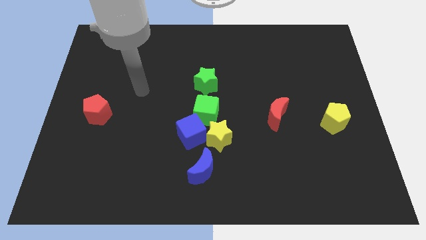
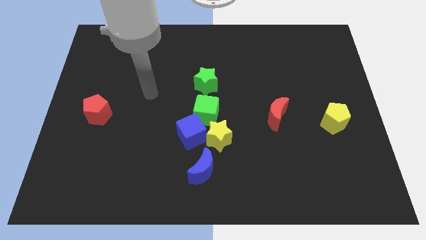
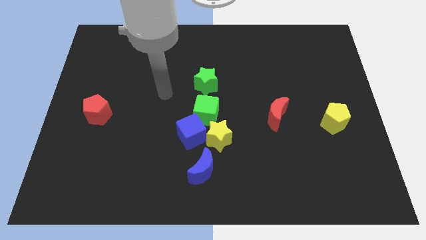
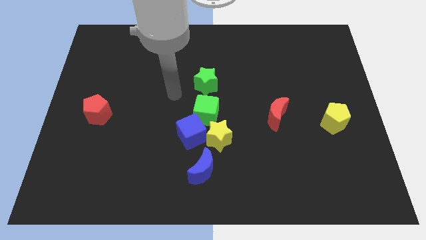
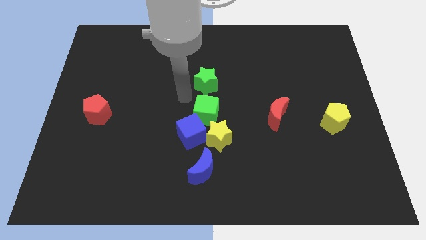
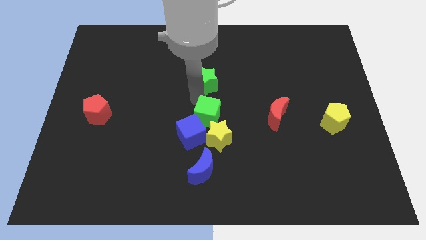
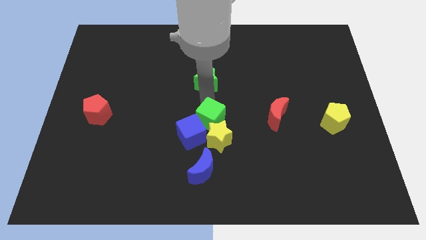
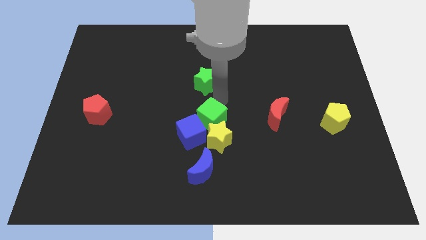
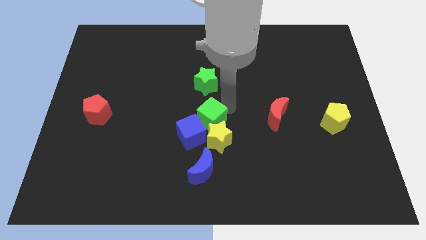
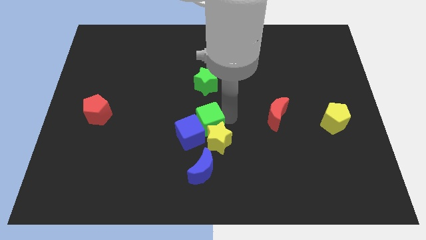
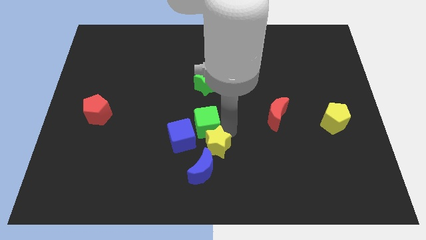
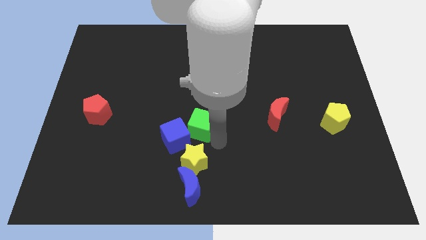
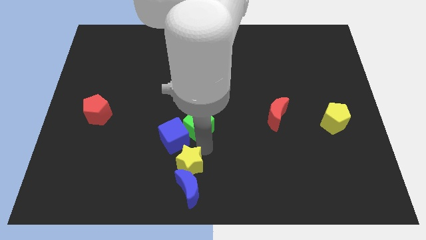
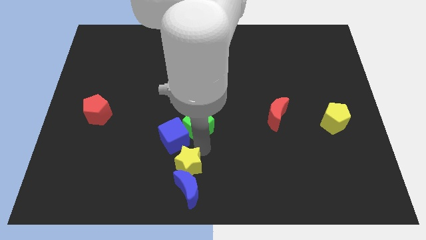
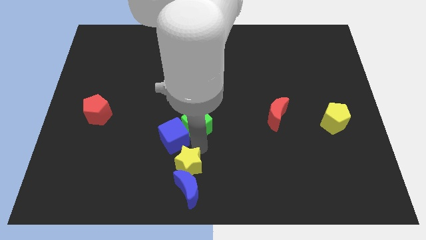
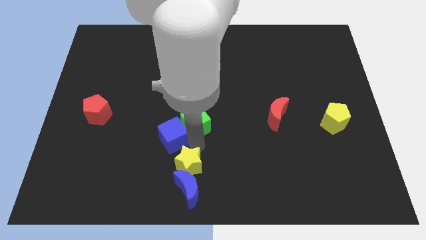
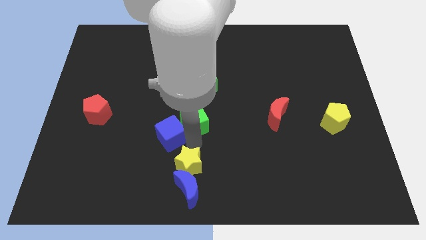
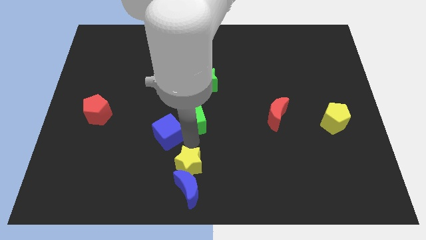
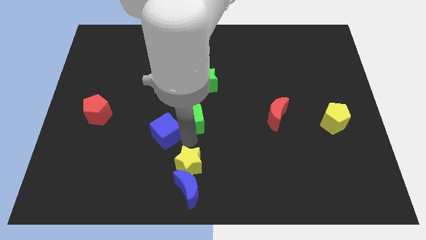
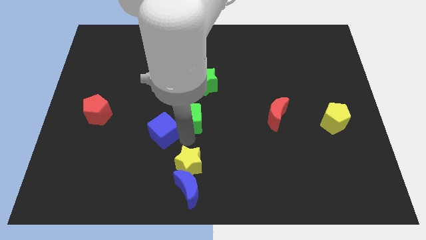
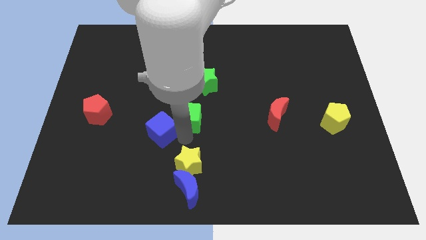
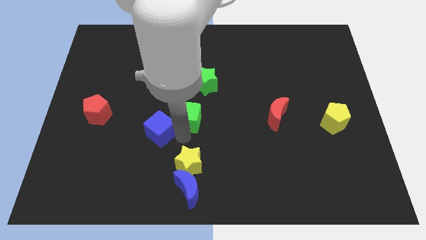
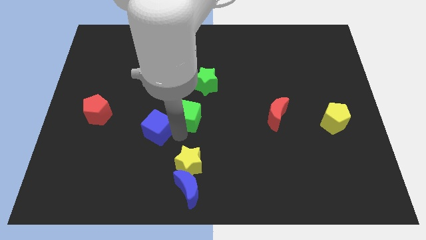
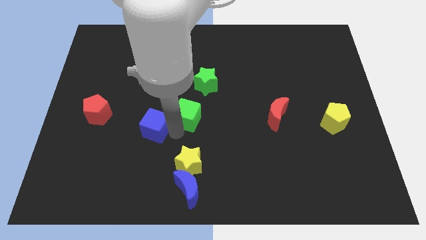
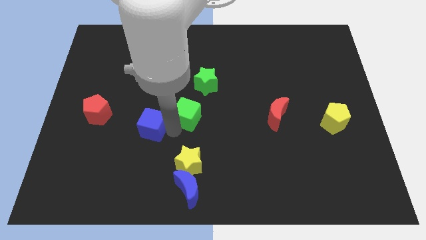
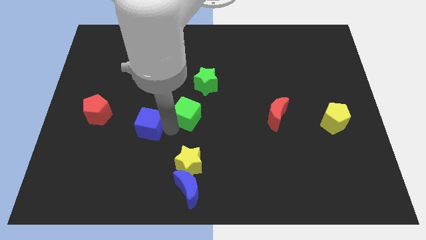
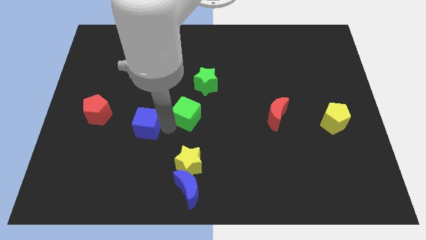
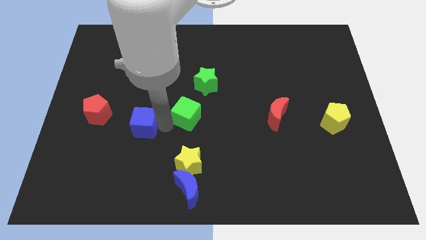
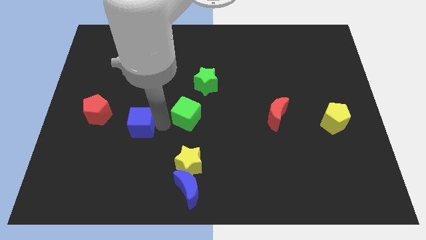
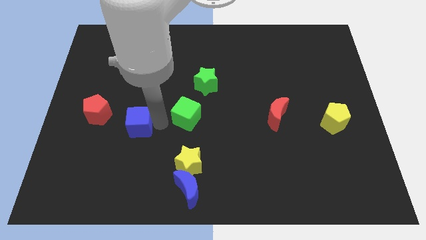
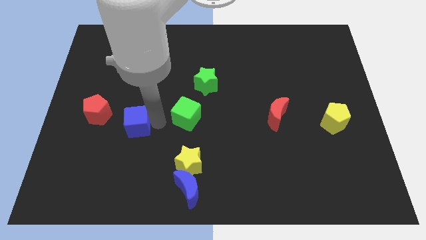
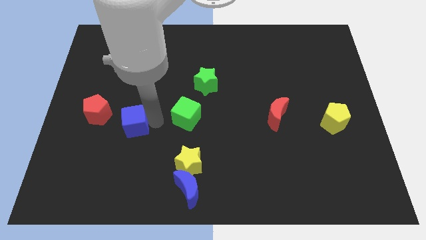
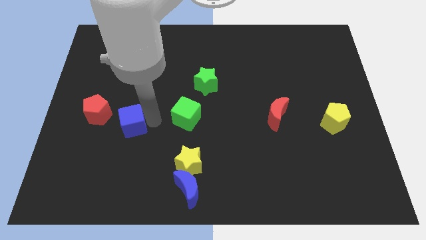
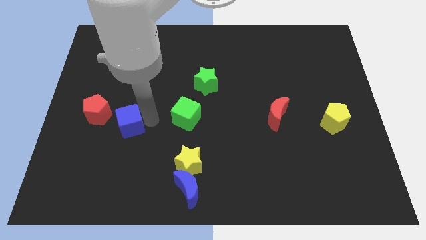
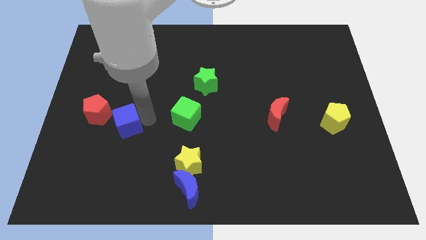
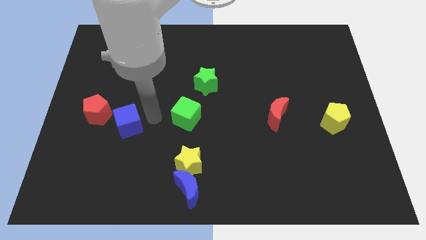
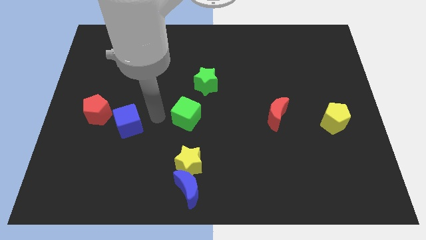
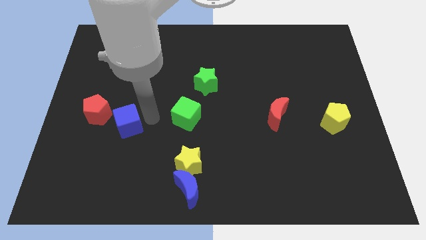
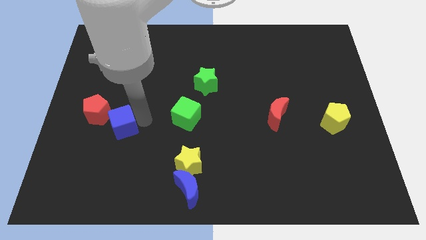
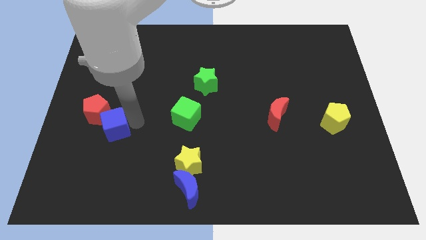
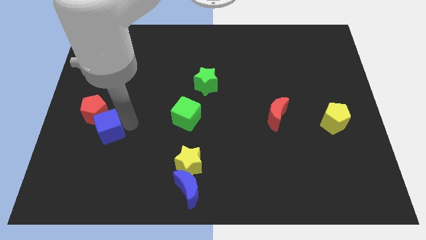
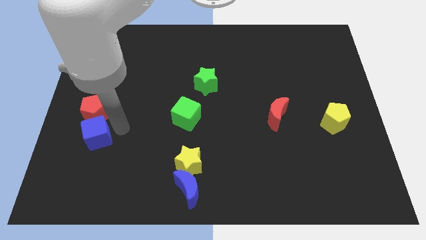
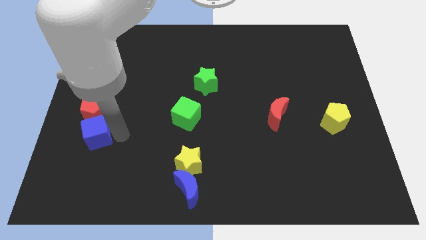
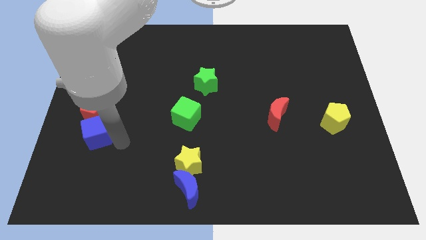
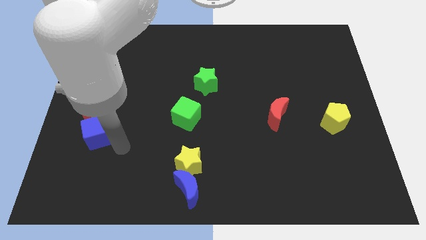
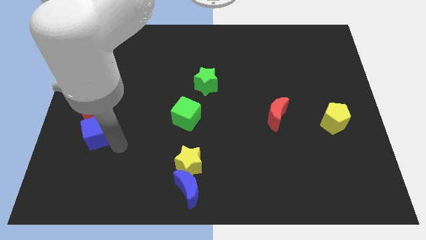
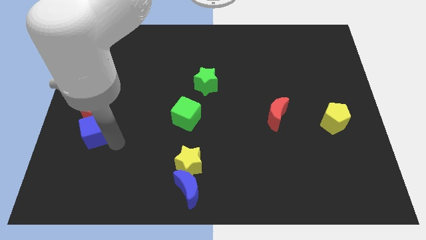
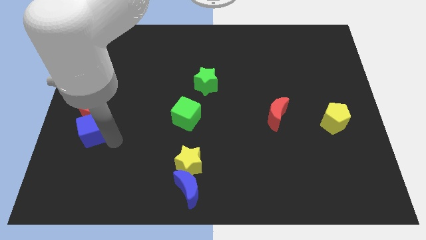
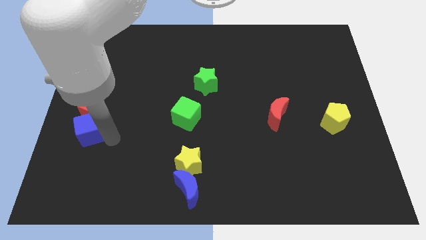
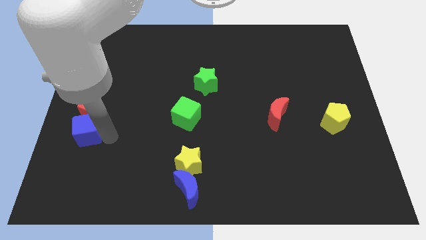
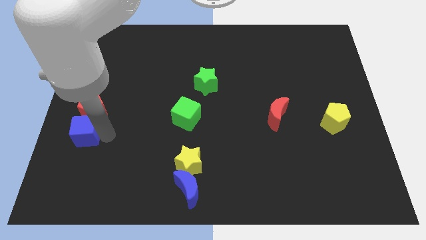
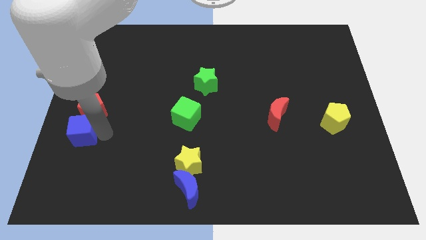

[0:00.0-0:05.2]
put the blue cube to the left side of the board

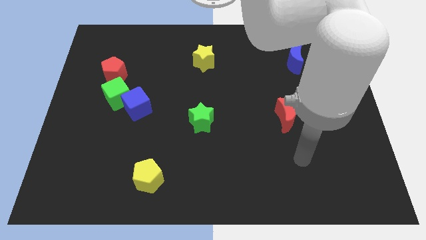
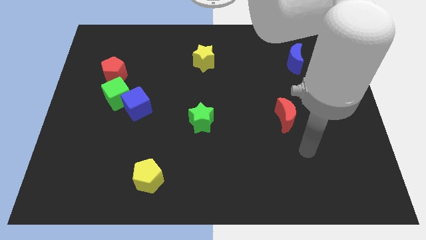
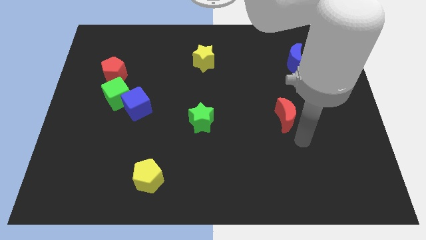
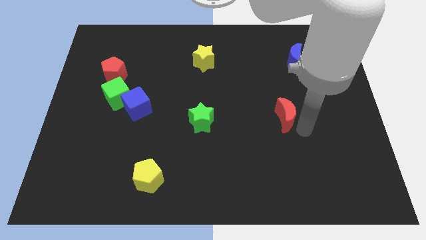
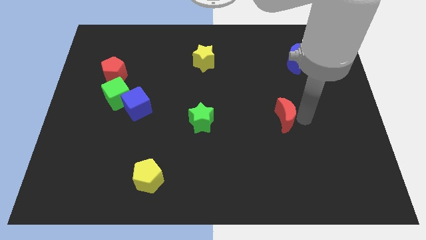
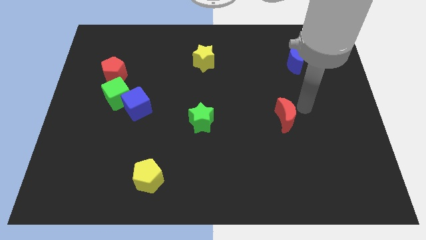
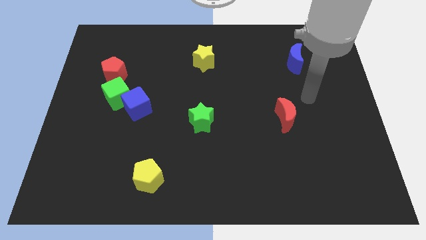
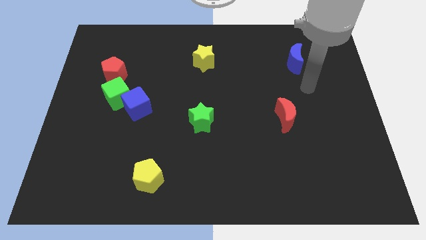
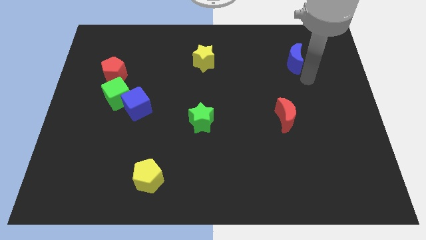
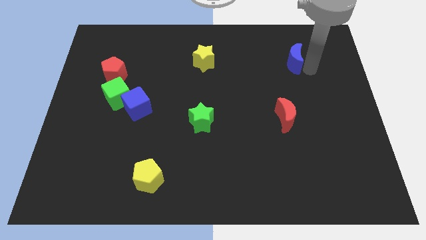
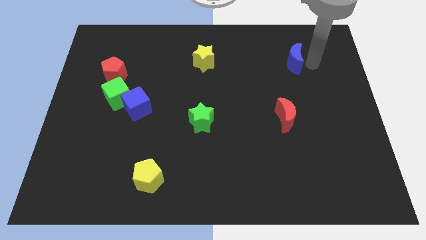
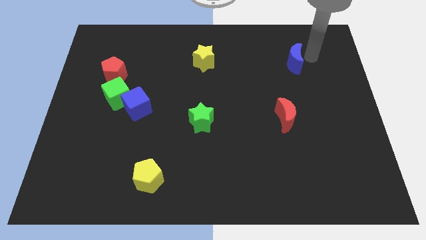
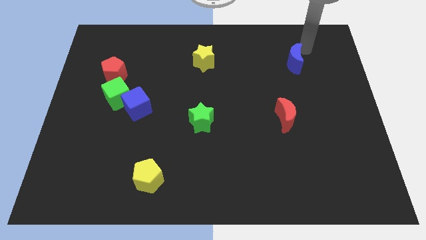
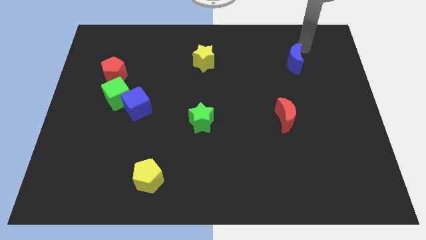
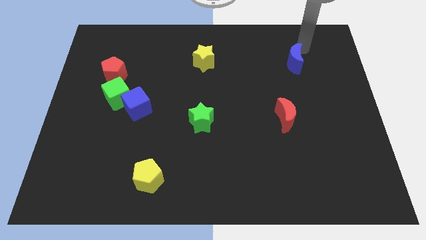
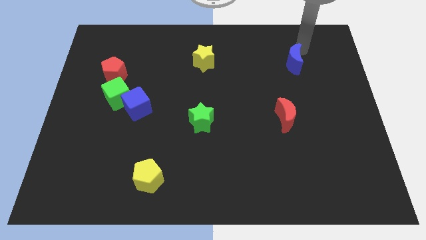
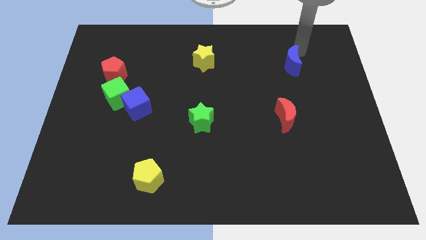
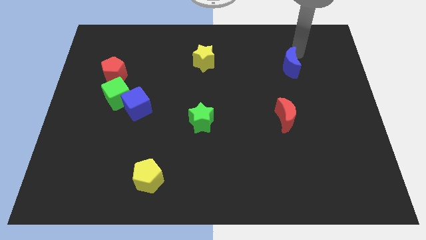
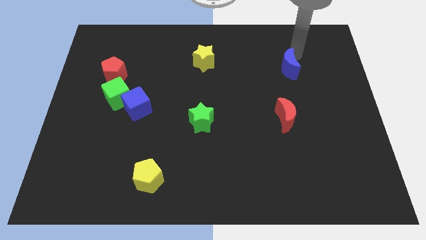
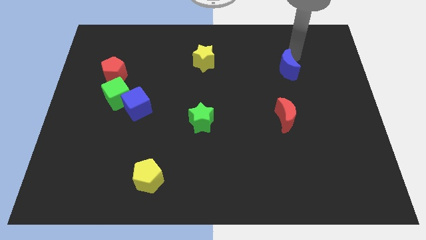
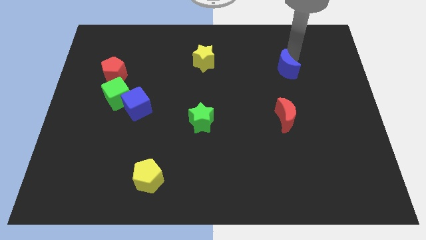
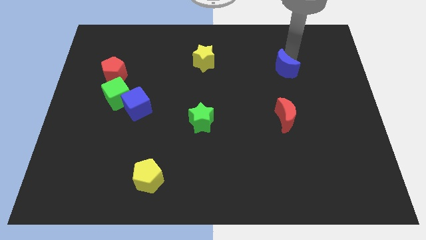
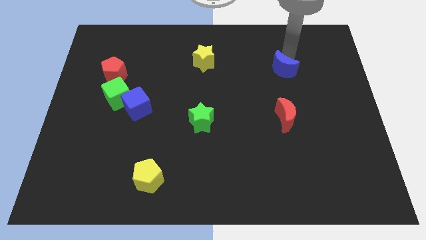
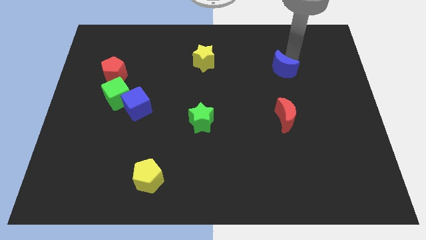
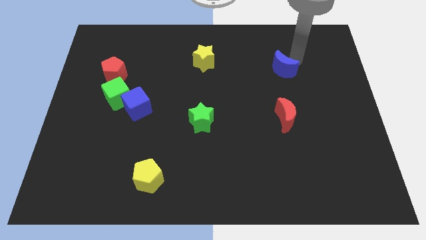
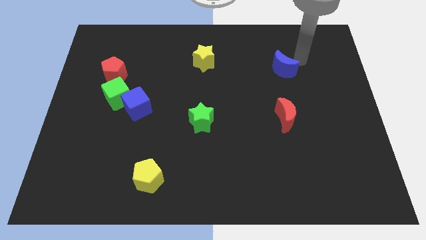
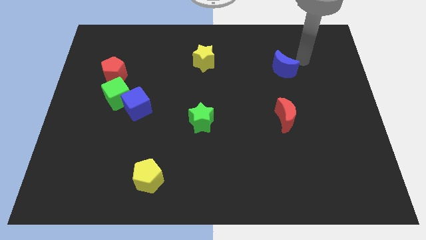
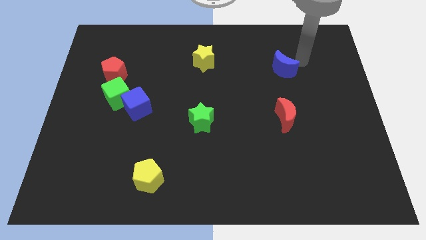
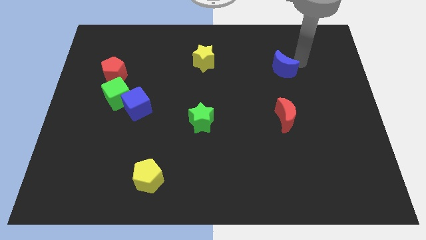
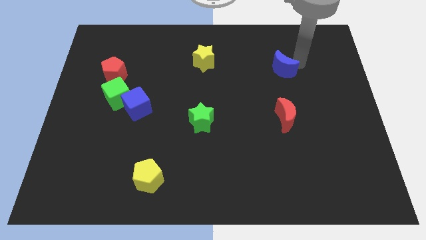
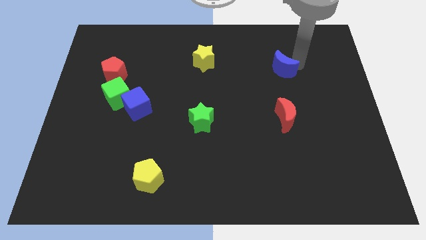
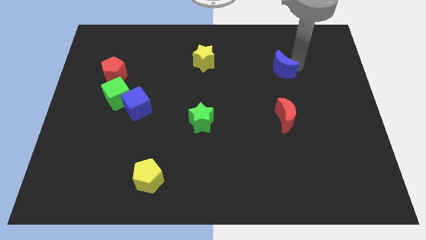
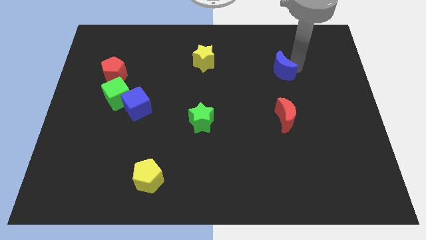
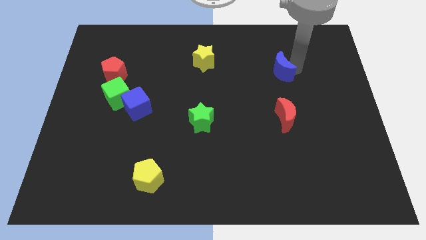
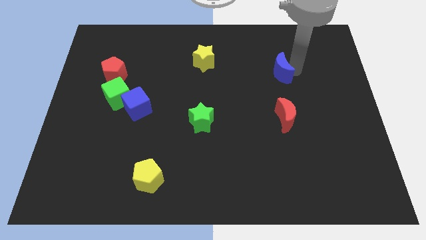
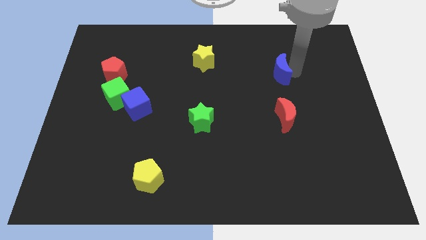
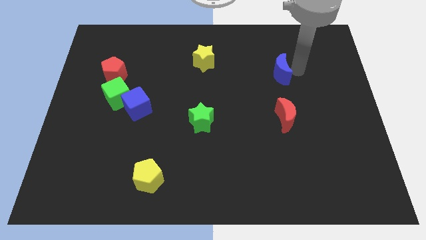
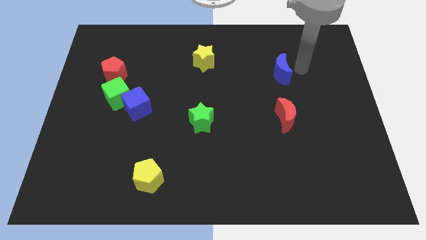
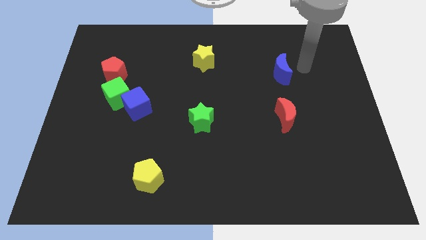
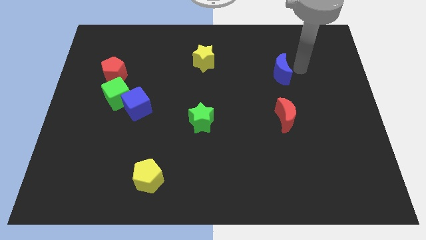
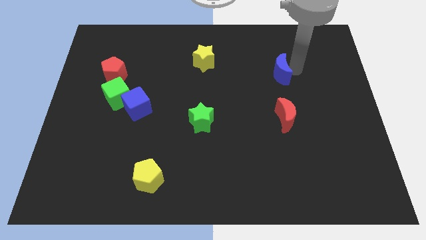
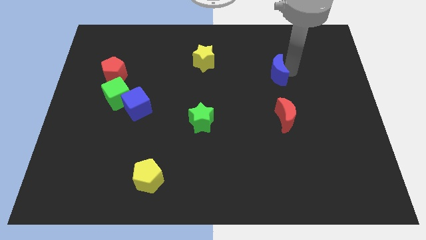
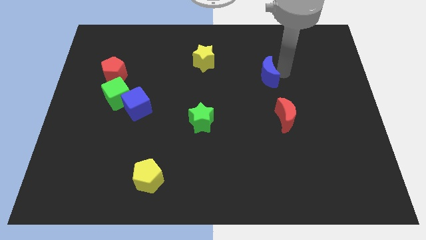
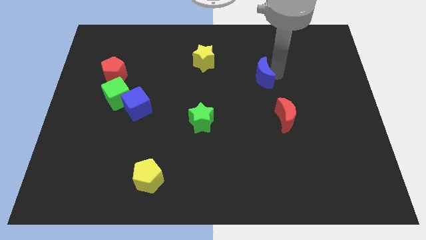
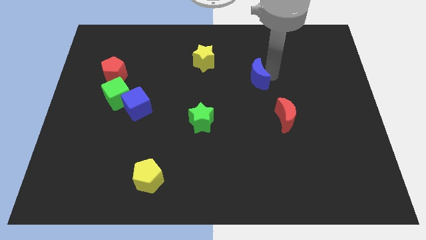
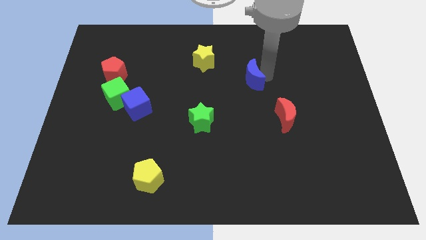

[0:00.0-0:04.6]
move the blue moon to the center of the board
